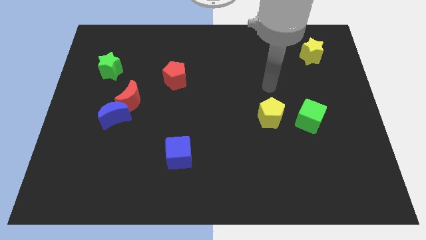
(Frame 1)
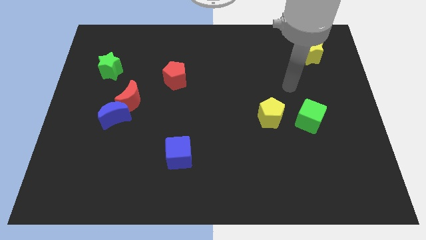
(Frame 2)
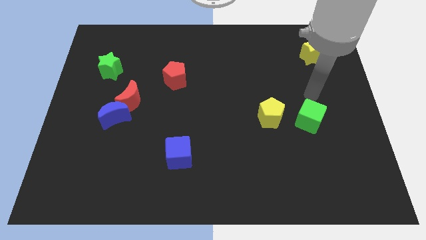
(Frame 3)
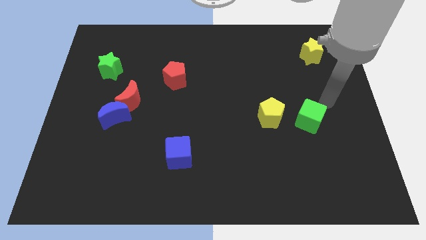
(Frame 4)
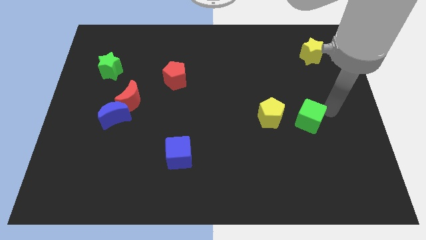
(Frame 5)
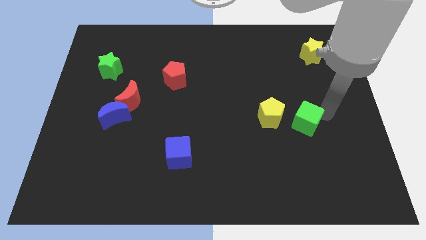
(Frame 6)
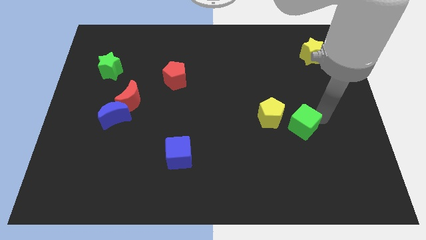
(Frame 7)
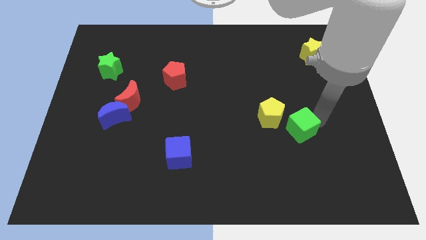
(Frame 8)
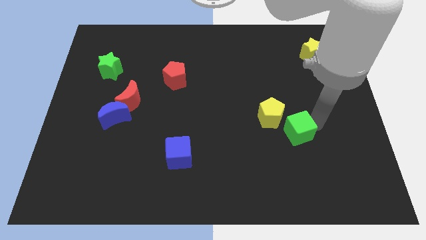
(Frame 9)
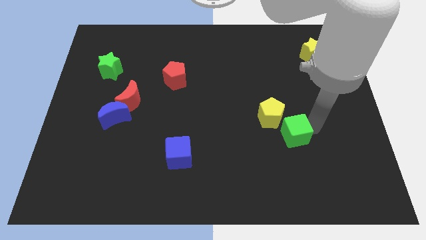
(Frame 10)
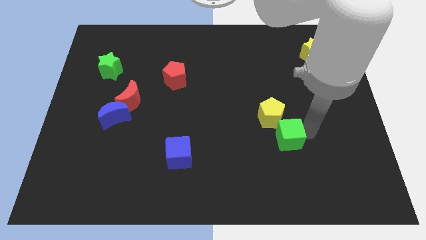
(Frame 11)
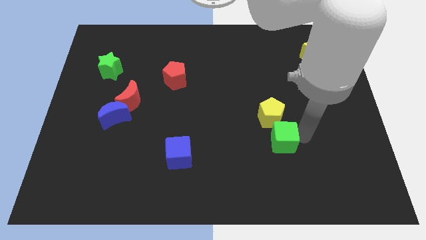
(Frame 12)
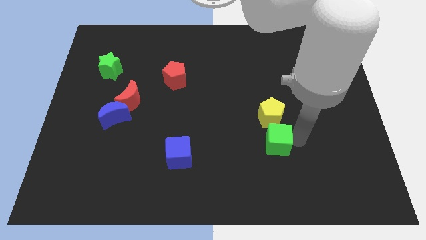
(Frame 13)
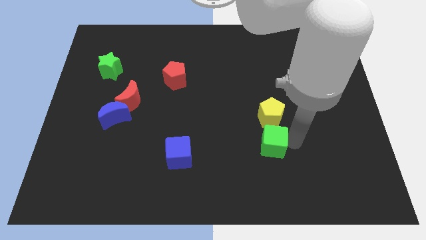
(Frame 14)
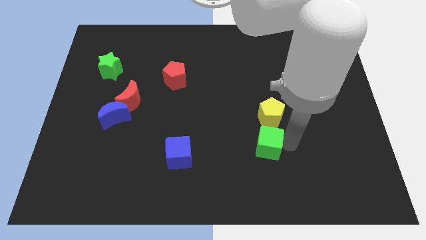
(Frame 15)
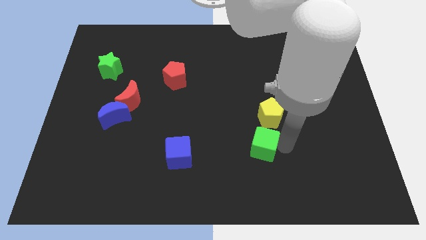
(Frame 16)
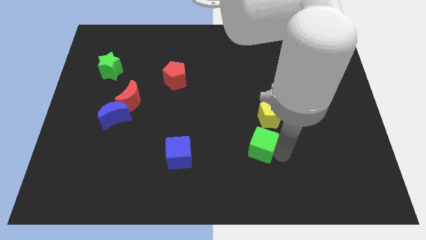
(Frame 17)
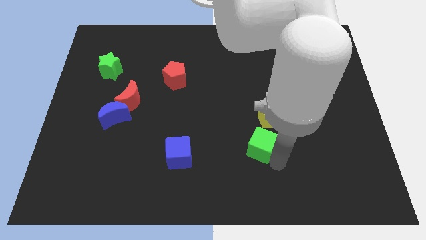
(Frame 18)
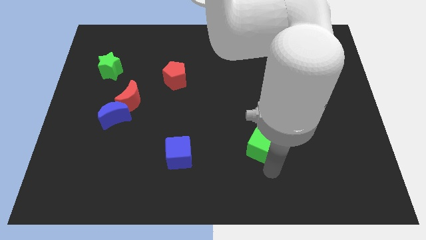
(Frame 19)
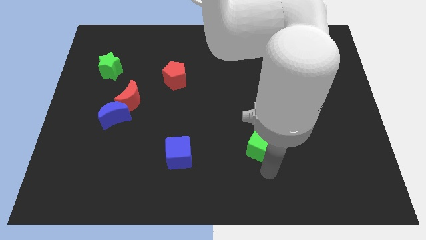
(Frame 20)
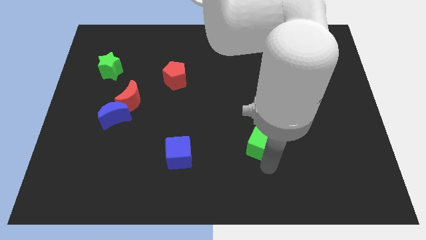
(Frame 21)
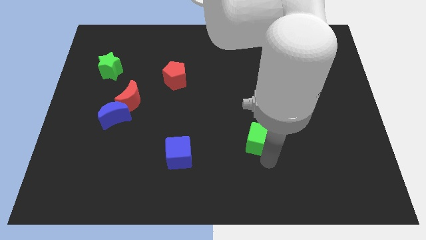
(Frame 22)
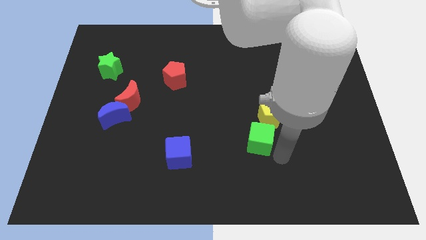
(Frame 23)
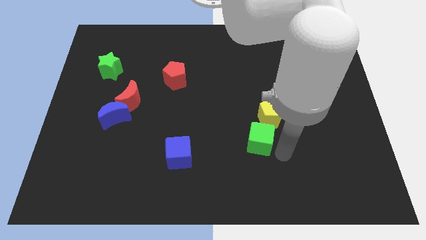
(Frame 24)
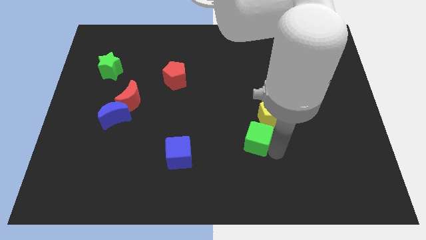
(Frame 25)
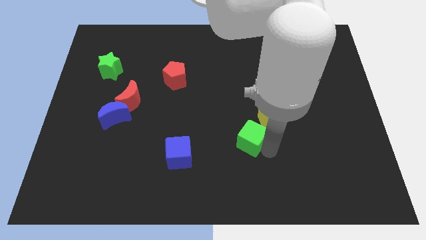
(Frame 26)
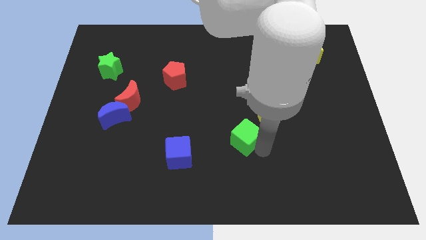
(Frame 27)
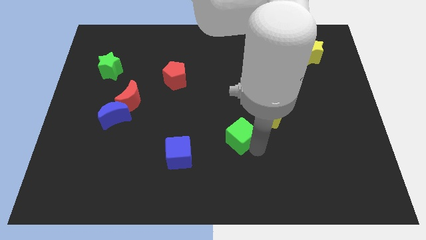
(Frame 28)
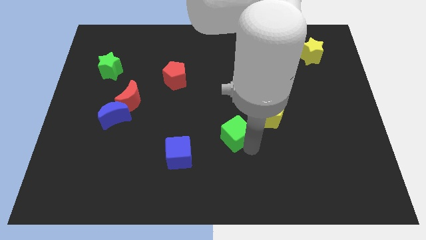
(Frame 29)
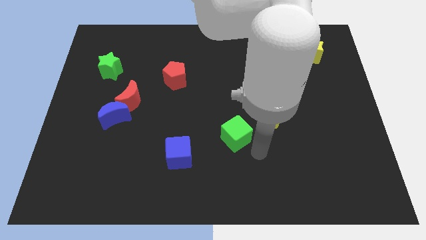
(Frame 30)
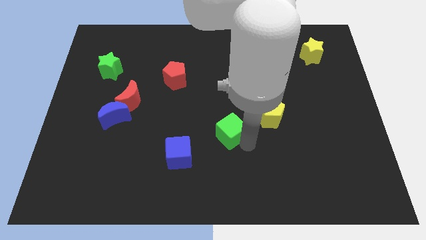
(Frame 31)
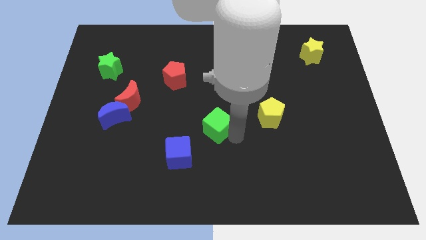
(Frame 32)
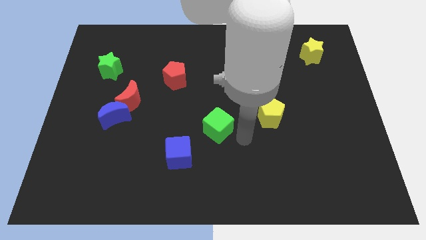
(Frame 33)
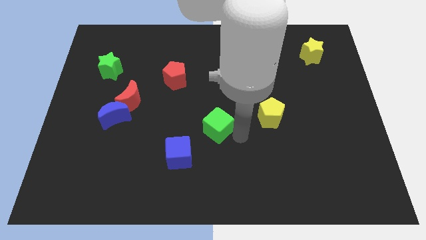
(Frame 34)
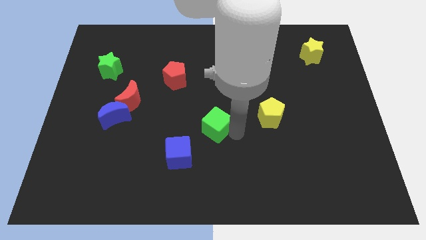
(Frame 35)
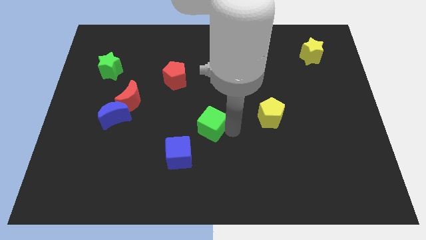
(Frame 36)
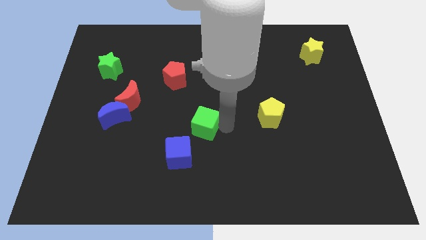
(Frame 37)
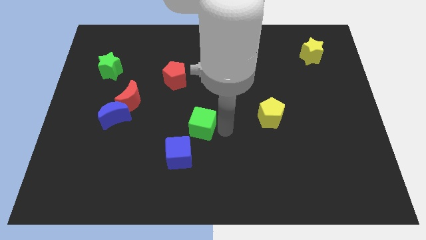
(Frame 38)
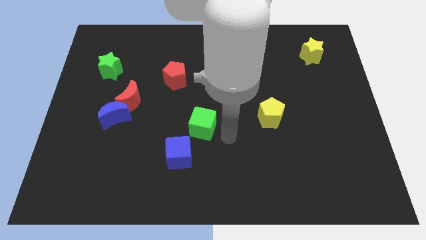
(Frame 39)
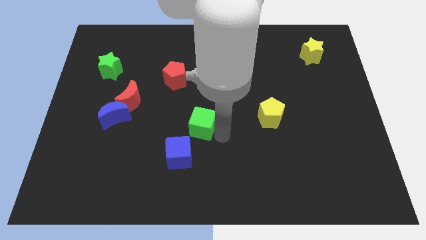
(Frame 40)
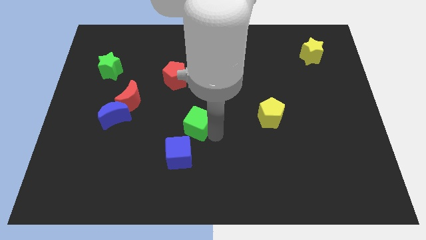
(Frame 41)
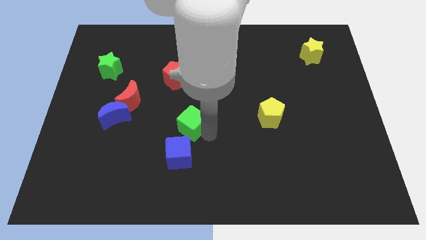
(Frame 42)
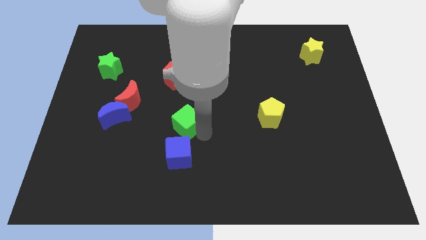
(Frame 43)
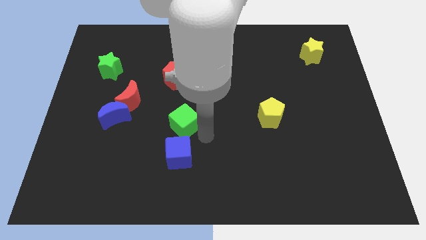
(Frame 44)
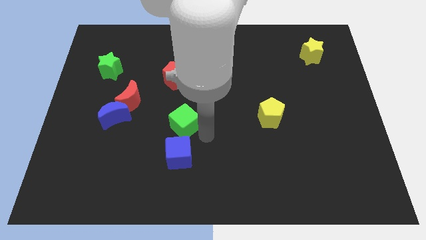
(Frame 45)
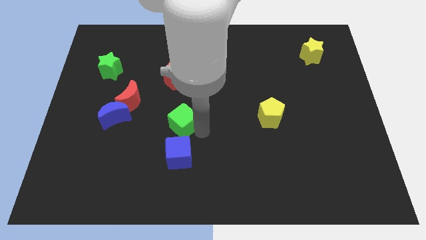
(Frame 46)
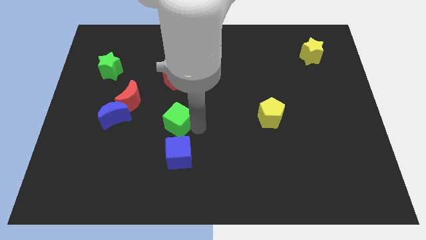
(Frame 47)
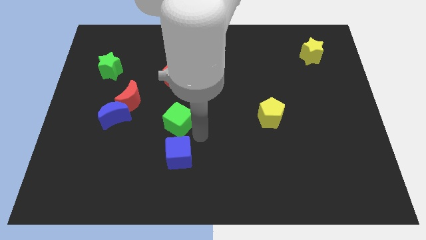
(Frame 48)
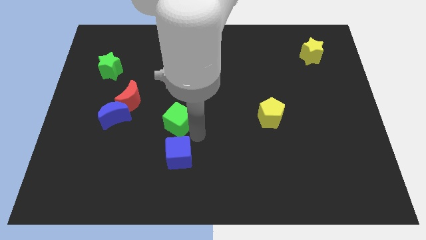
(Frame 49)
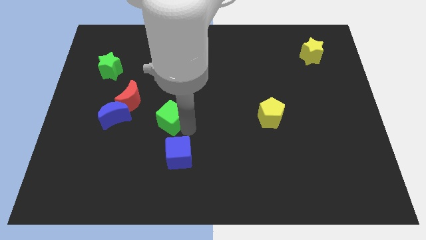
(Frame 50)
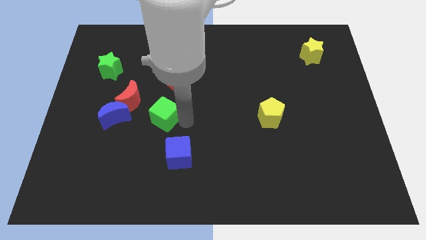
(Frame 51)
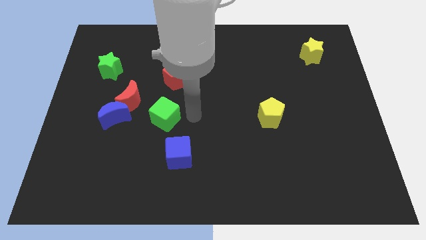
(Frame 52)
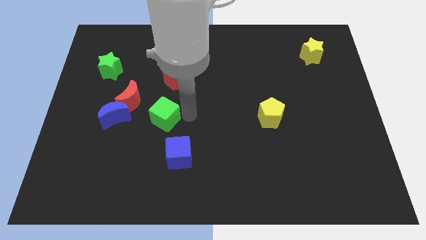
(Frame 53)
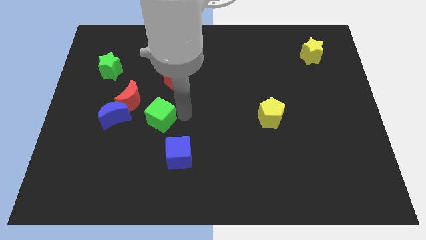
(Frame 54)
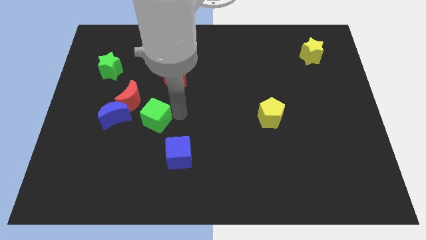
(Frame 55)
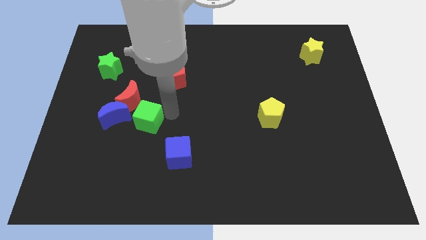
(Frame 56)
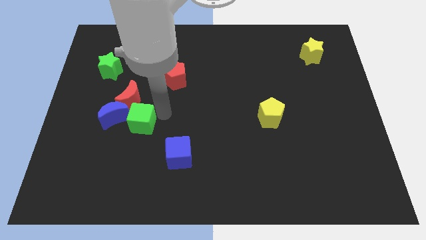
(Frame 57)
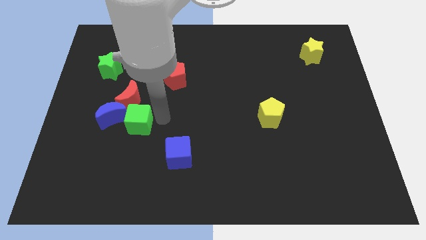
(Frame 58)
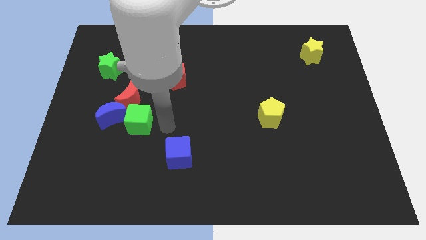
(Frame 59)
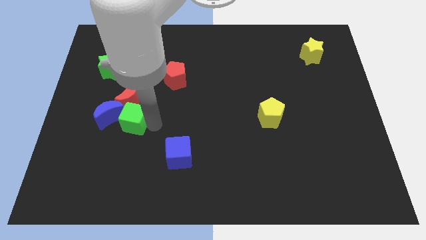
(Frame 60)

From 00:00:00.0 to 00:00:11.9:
slide the green cube to the blue moon

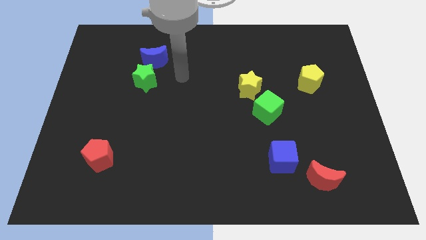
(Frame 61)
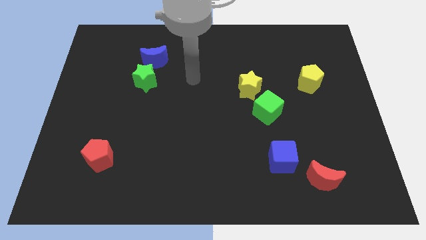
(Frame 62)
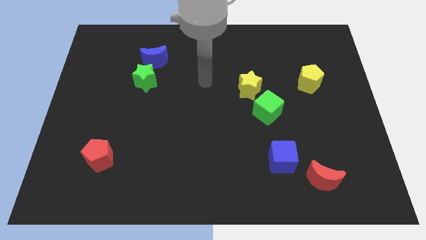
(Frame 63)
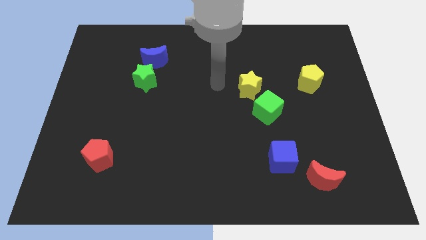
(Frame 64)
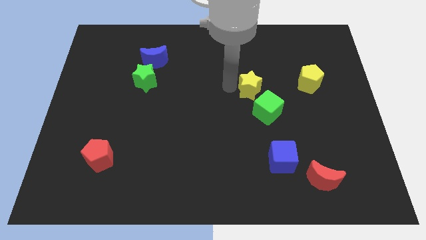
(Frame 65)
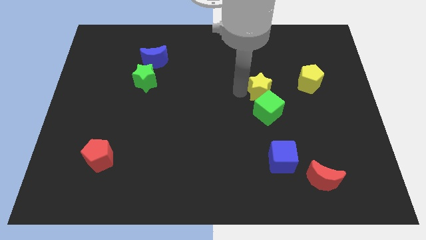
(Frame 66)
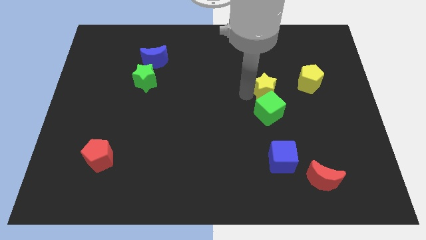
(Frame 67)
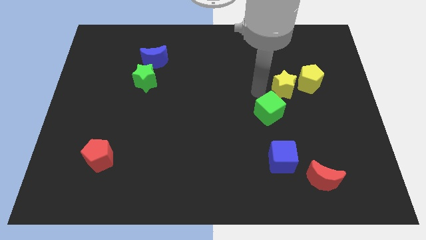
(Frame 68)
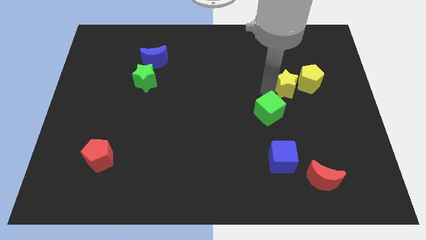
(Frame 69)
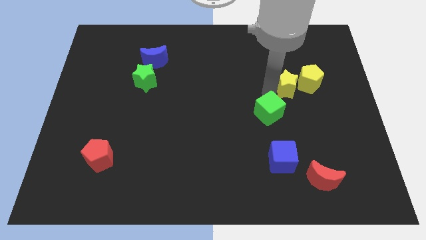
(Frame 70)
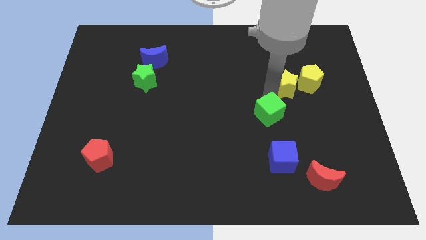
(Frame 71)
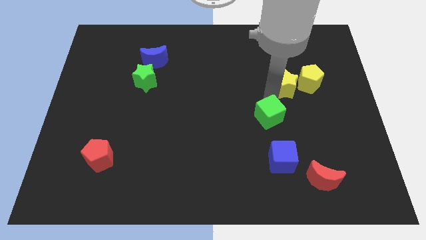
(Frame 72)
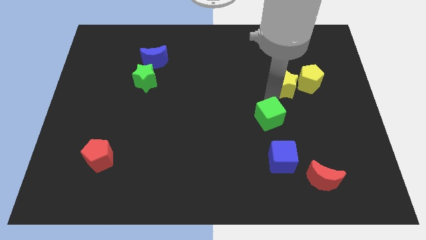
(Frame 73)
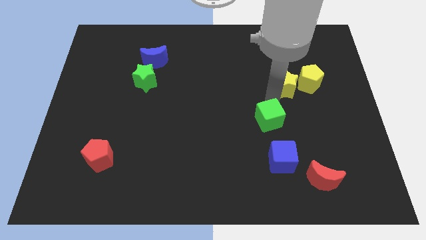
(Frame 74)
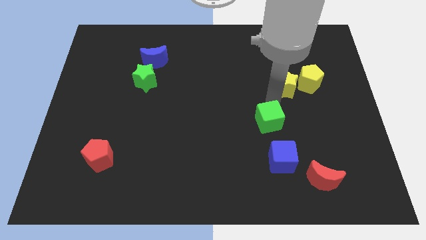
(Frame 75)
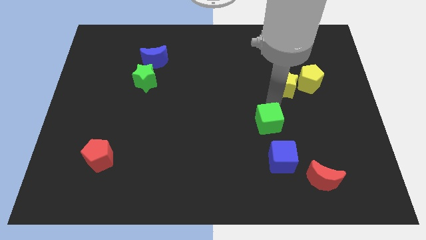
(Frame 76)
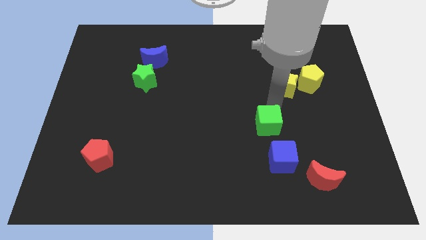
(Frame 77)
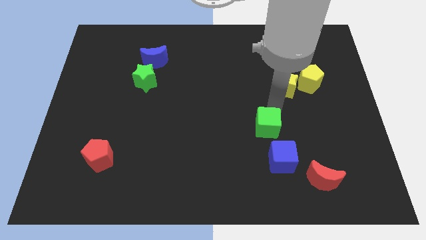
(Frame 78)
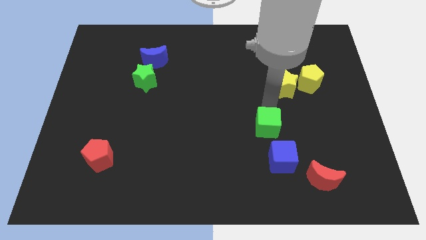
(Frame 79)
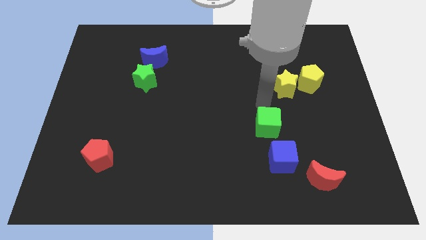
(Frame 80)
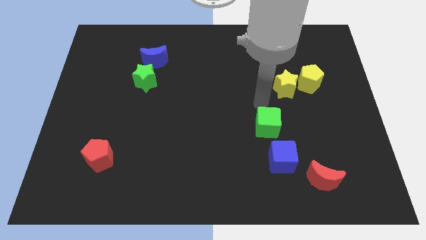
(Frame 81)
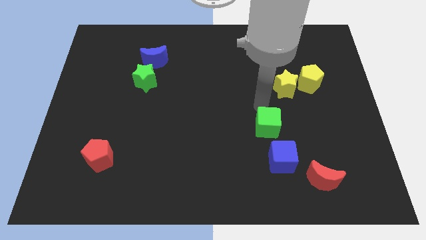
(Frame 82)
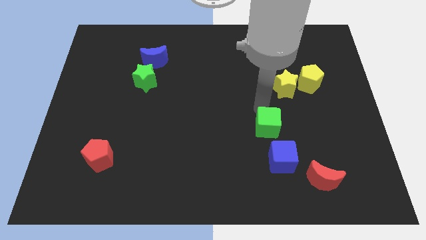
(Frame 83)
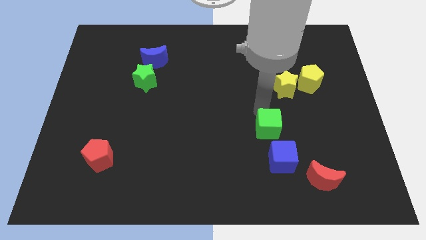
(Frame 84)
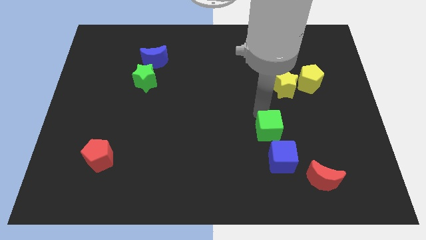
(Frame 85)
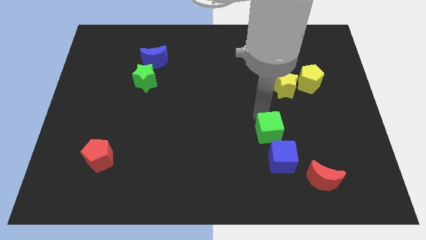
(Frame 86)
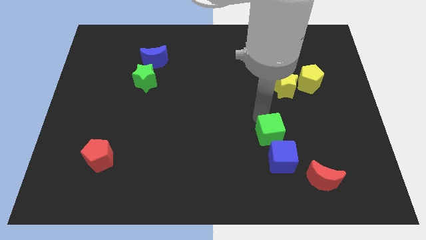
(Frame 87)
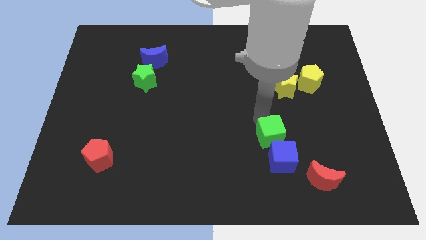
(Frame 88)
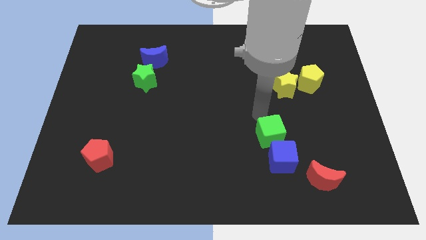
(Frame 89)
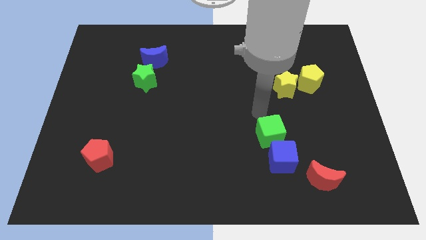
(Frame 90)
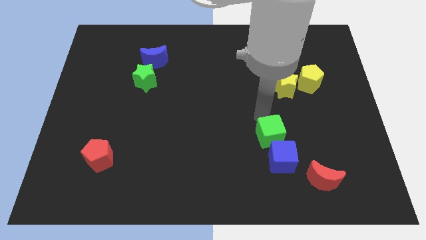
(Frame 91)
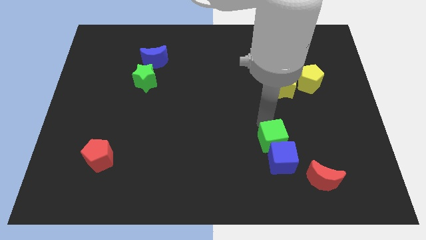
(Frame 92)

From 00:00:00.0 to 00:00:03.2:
push the green cube close to the blue cube
